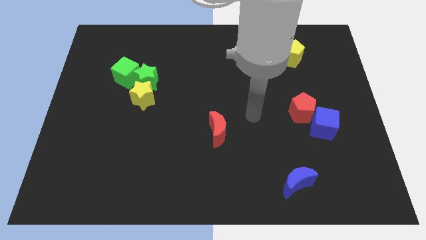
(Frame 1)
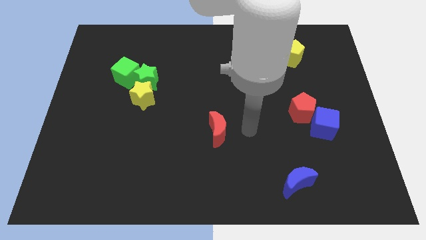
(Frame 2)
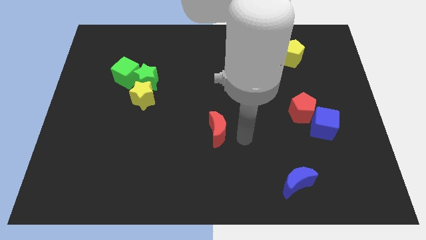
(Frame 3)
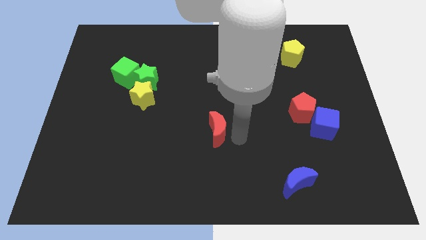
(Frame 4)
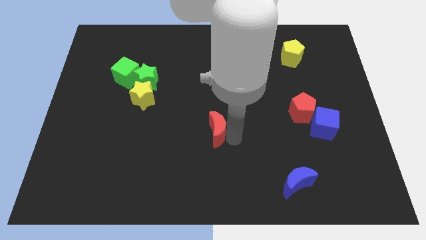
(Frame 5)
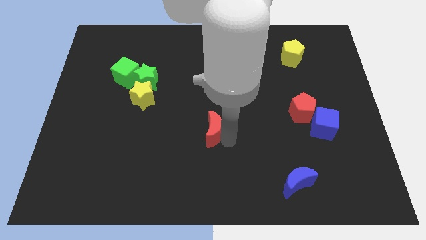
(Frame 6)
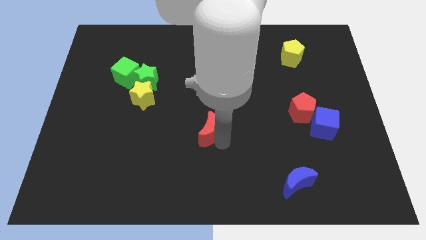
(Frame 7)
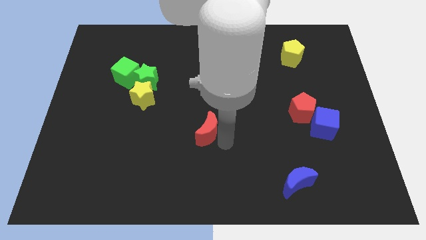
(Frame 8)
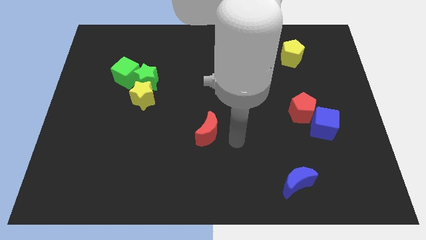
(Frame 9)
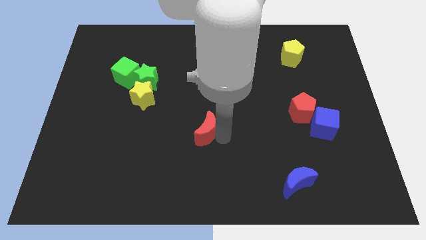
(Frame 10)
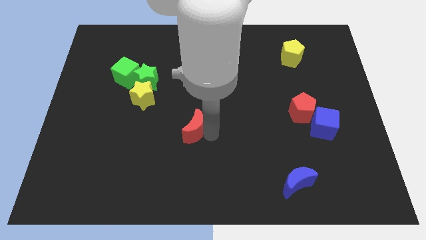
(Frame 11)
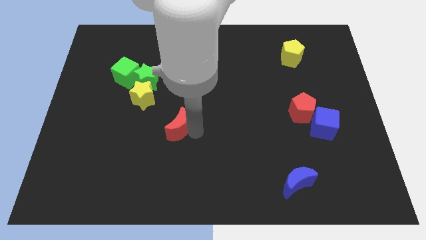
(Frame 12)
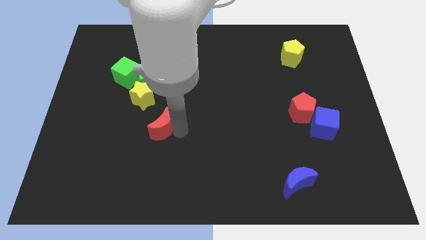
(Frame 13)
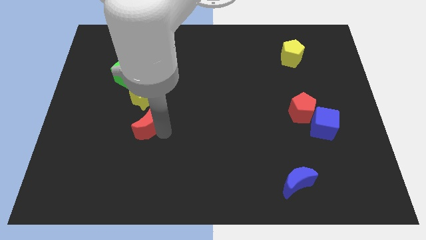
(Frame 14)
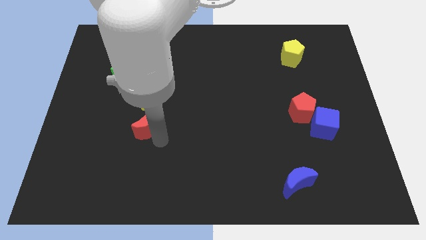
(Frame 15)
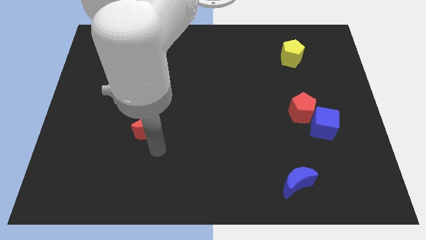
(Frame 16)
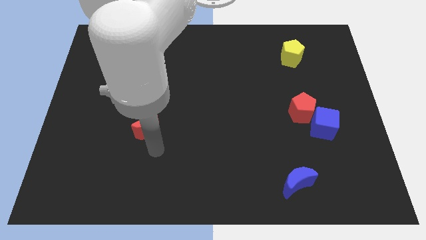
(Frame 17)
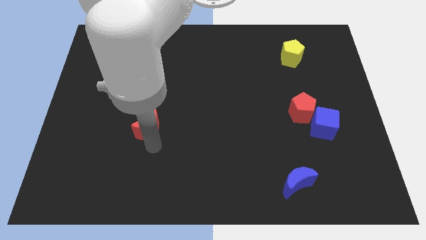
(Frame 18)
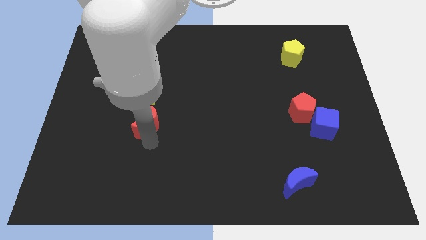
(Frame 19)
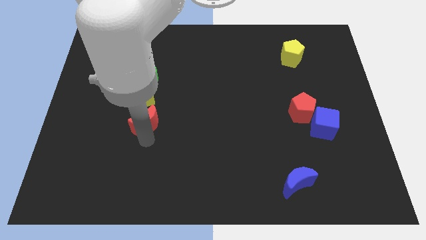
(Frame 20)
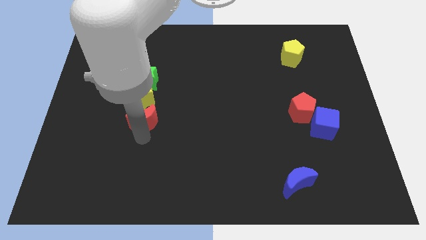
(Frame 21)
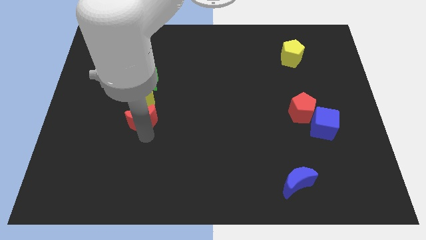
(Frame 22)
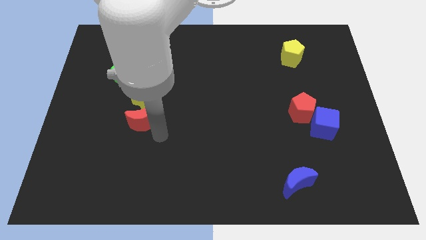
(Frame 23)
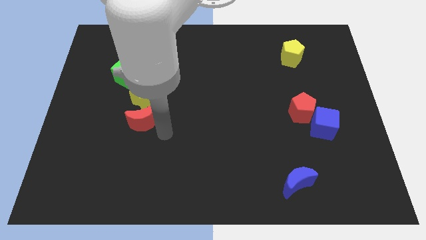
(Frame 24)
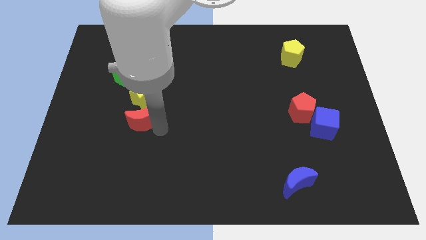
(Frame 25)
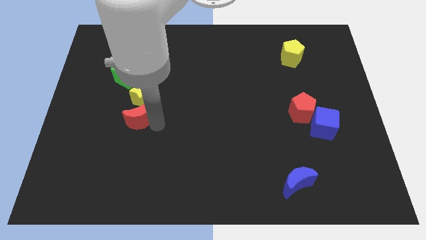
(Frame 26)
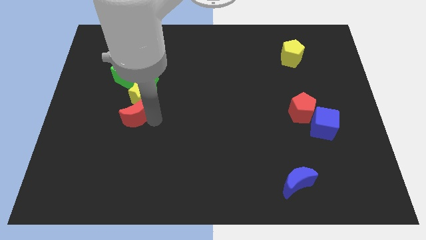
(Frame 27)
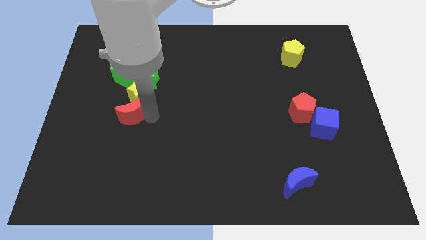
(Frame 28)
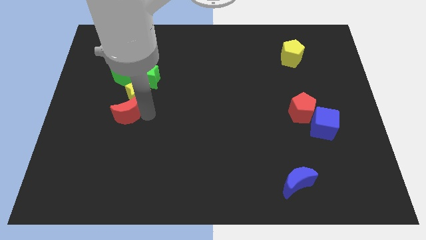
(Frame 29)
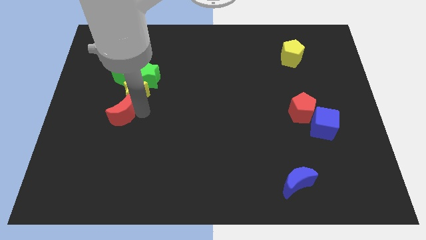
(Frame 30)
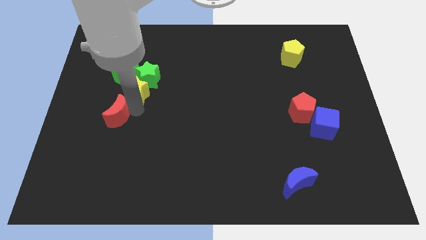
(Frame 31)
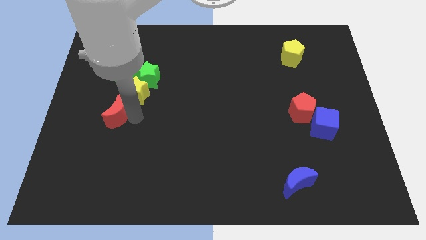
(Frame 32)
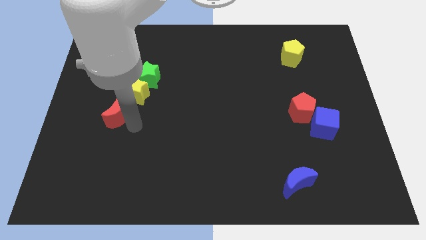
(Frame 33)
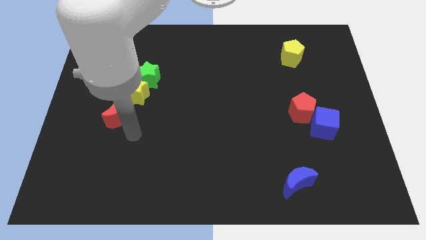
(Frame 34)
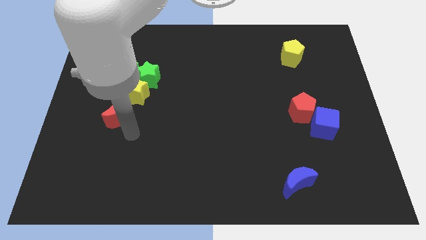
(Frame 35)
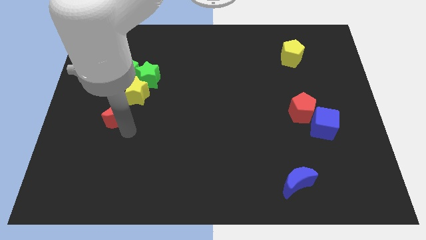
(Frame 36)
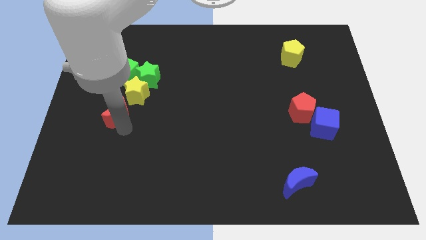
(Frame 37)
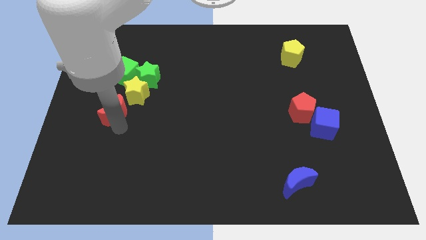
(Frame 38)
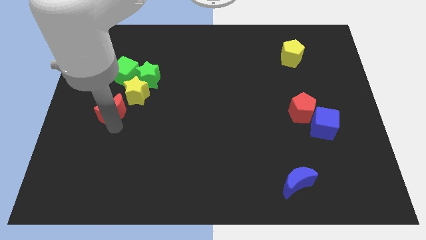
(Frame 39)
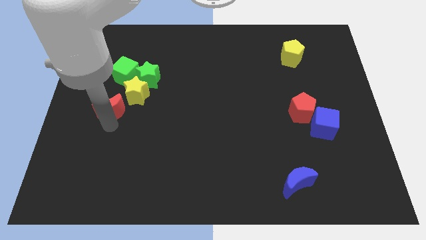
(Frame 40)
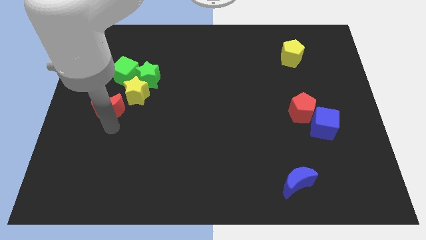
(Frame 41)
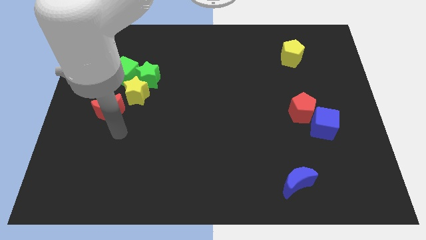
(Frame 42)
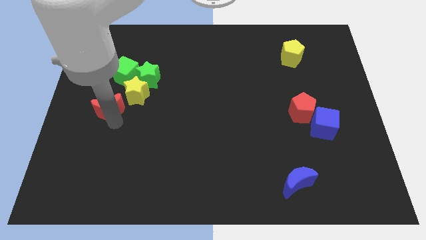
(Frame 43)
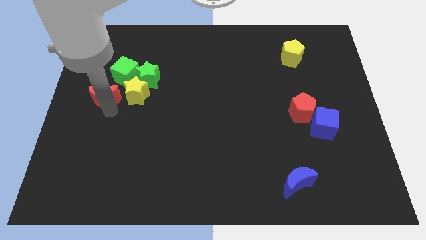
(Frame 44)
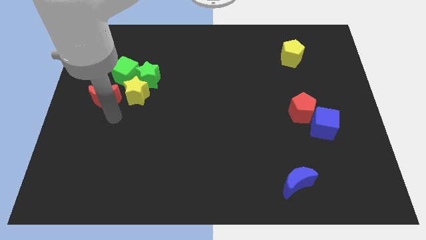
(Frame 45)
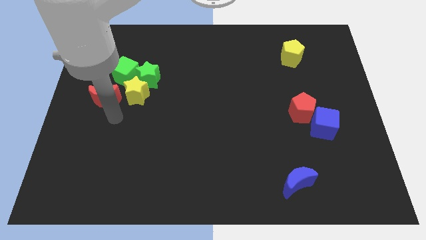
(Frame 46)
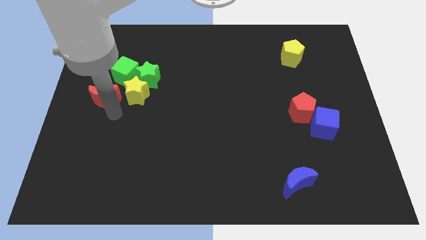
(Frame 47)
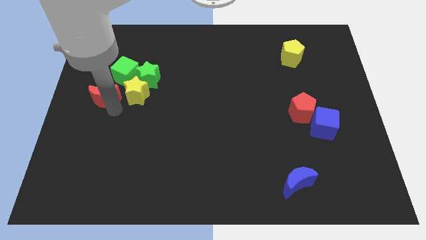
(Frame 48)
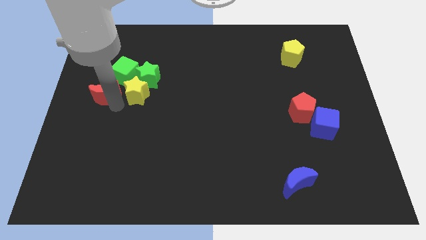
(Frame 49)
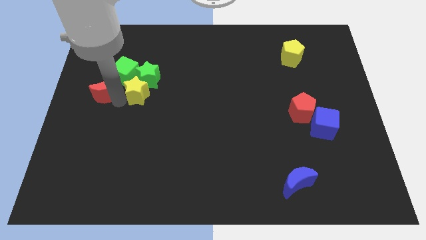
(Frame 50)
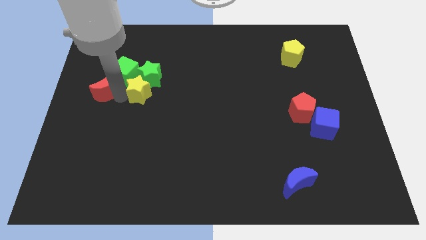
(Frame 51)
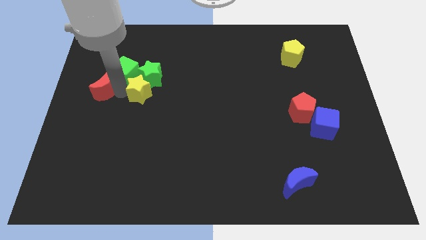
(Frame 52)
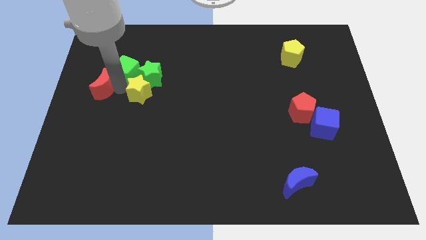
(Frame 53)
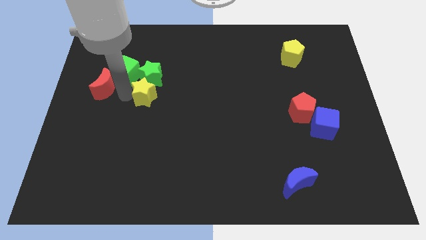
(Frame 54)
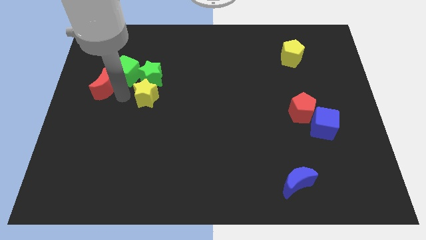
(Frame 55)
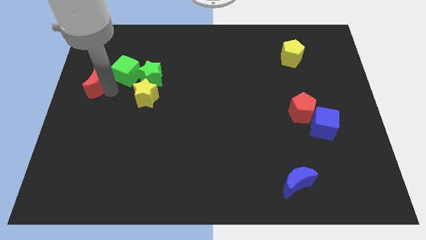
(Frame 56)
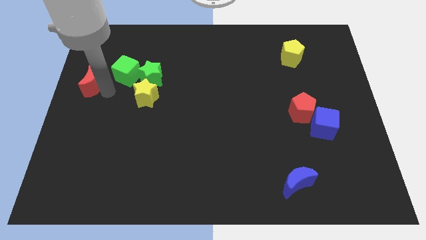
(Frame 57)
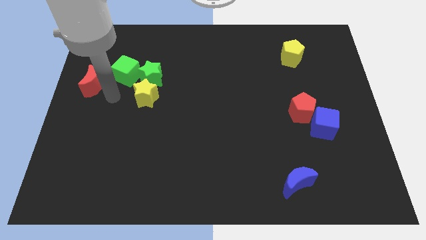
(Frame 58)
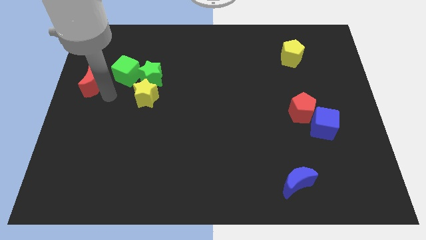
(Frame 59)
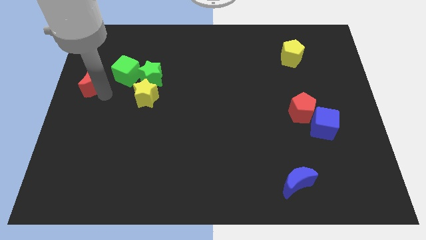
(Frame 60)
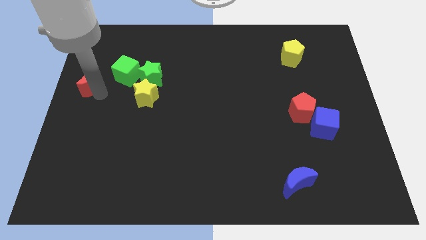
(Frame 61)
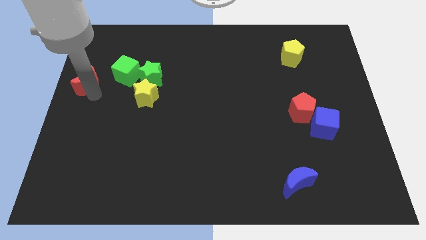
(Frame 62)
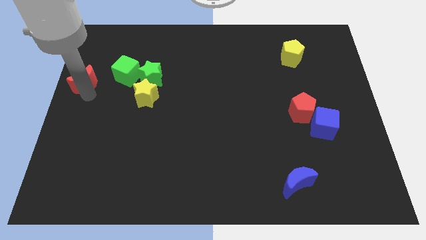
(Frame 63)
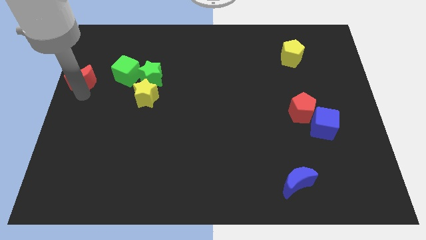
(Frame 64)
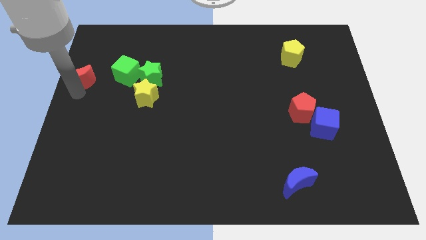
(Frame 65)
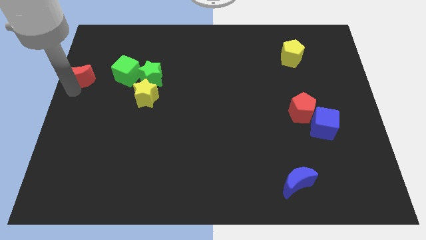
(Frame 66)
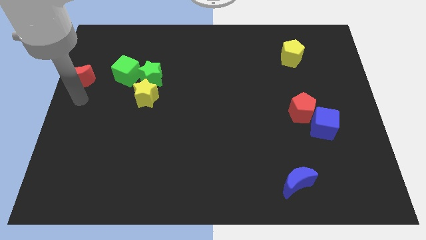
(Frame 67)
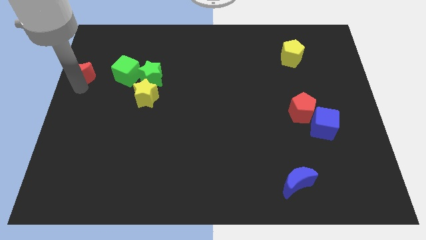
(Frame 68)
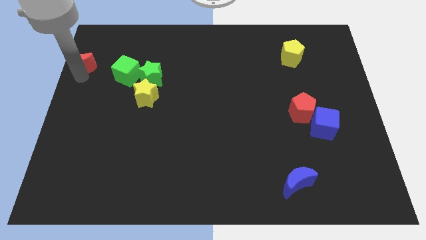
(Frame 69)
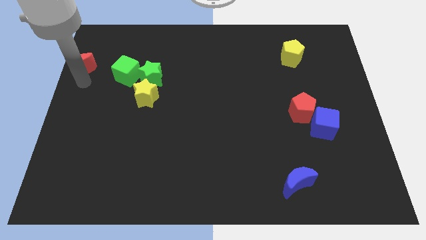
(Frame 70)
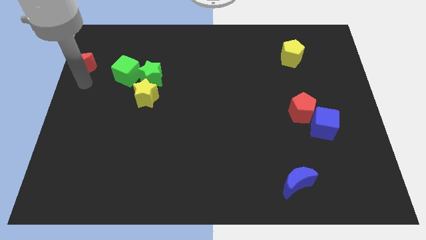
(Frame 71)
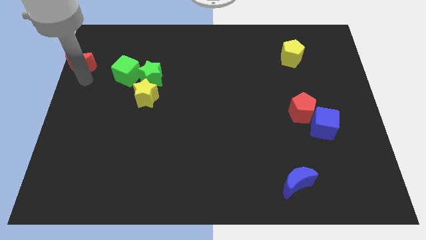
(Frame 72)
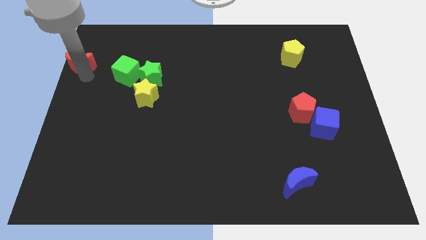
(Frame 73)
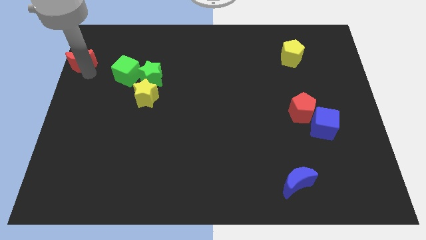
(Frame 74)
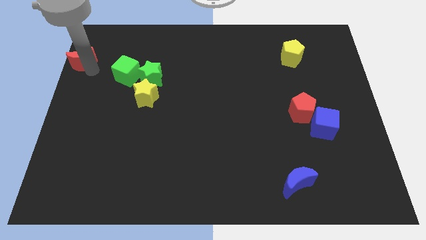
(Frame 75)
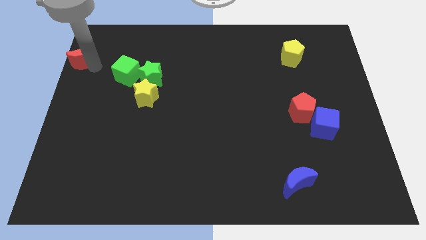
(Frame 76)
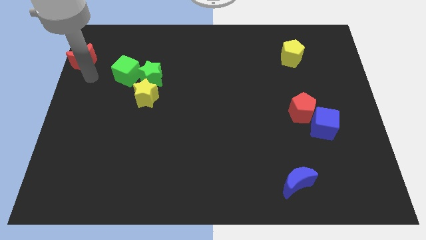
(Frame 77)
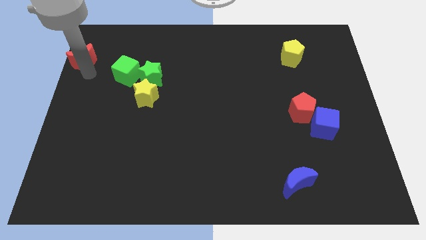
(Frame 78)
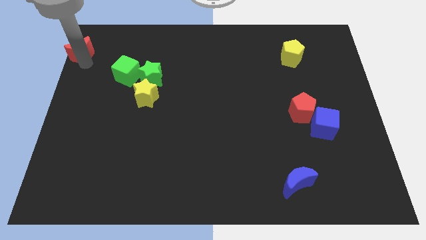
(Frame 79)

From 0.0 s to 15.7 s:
put the red moon to the top left corner
